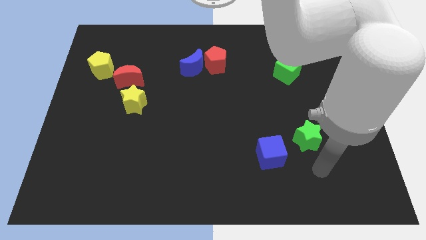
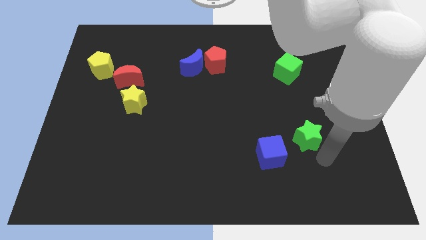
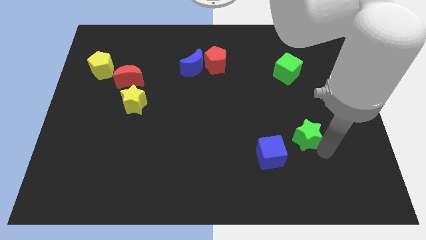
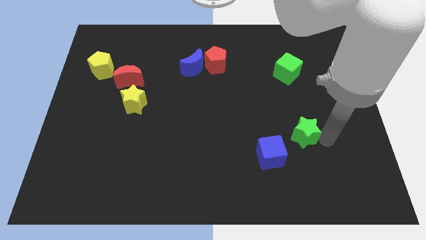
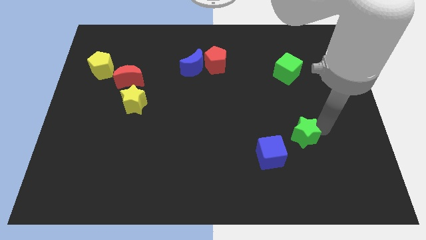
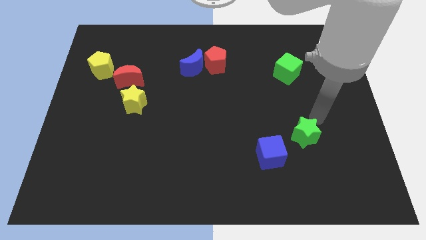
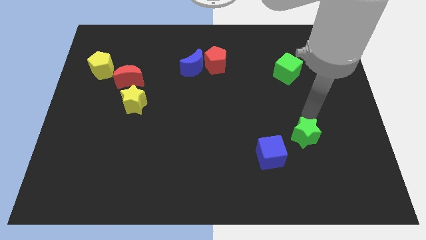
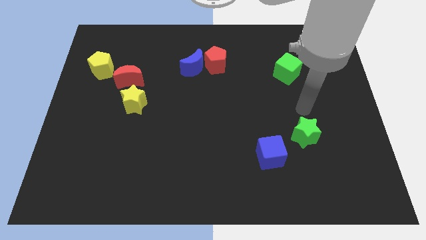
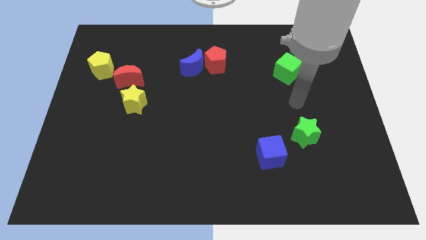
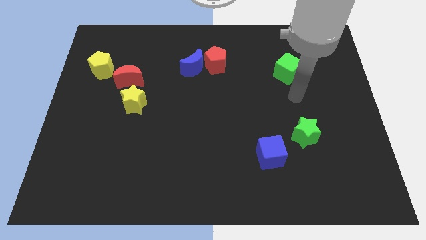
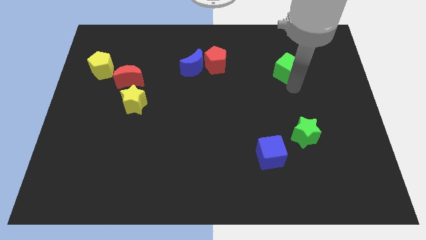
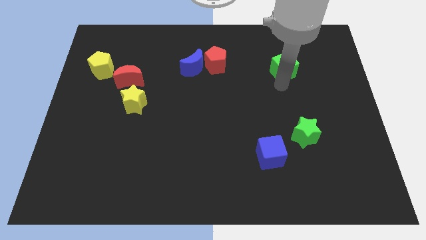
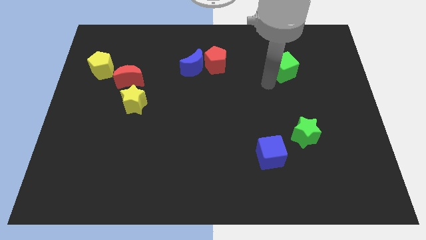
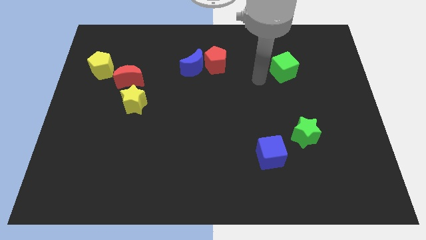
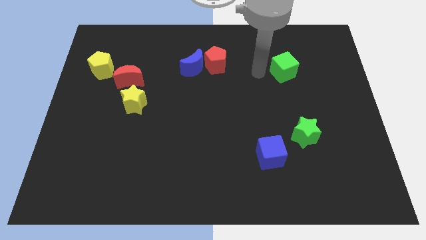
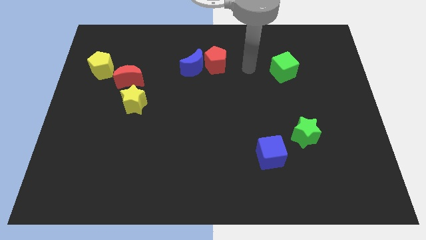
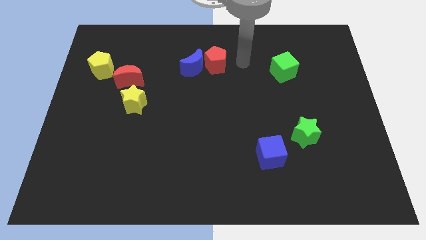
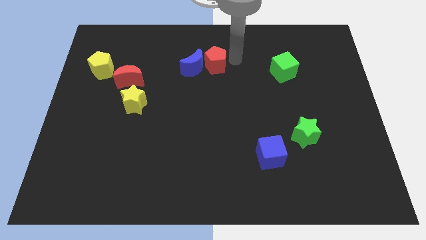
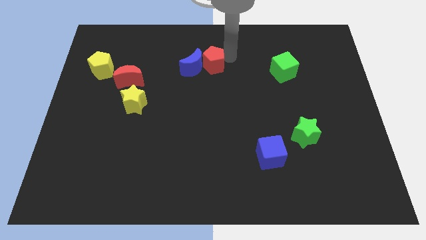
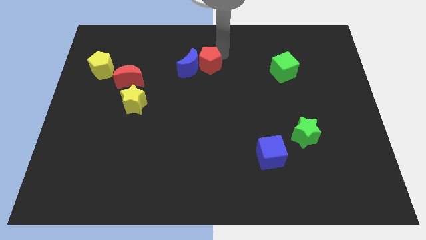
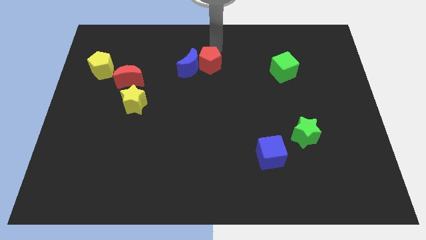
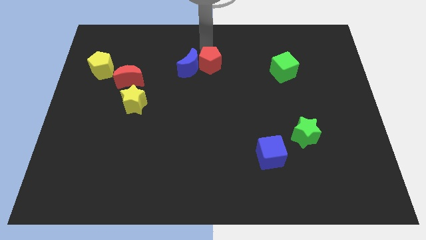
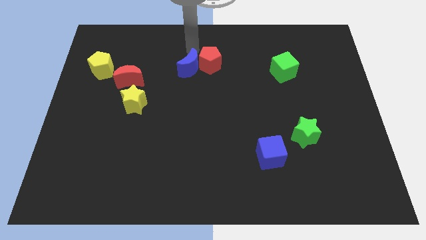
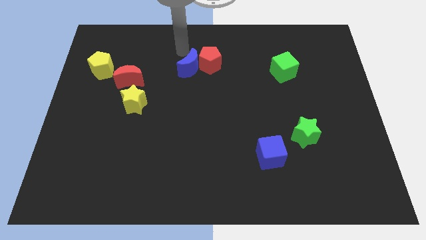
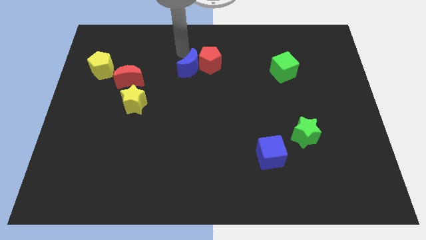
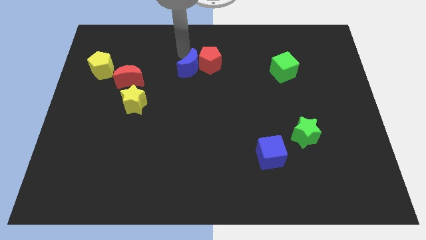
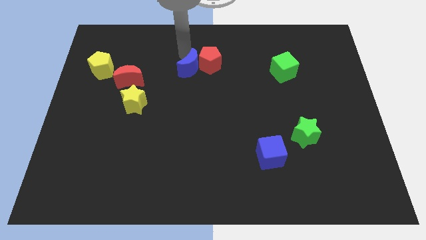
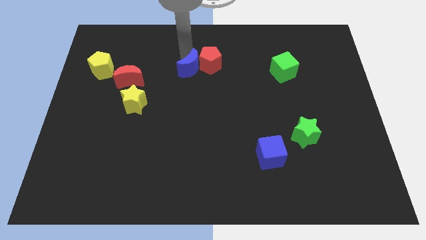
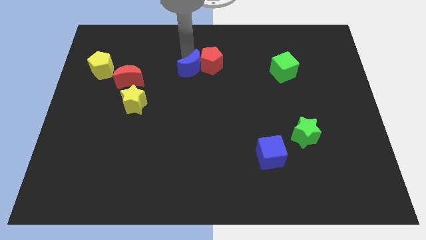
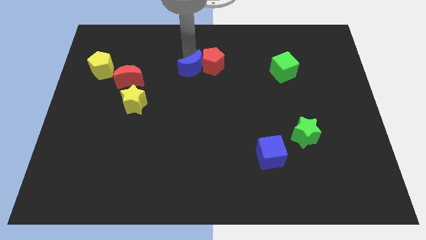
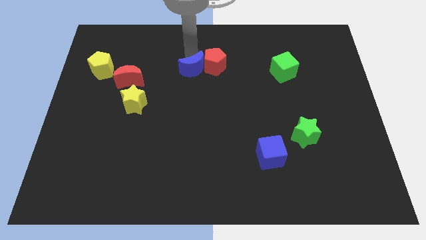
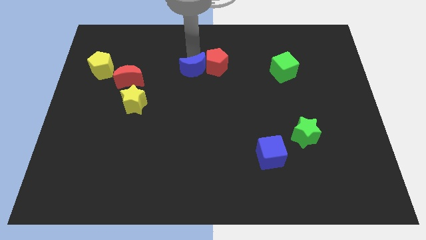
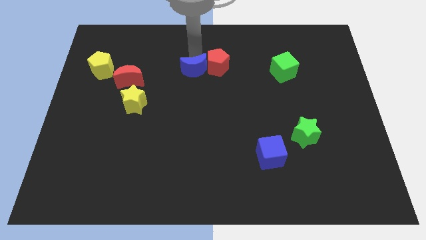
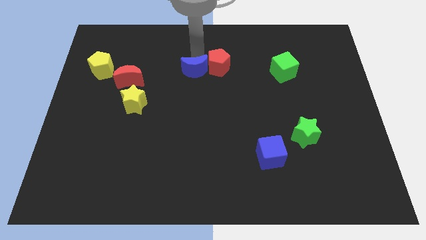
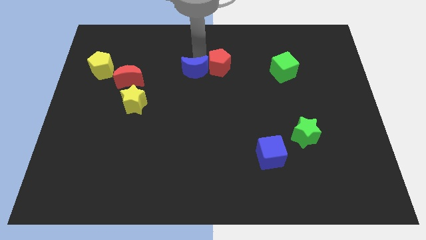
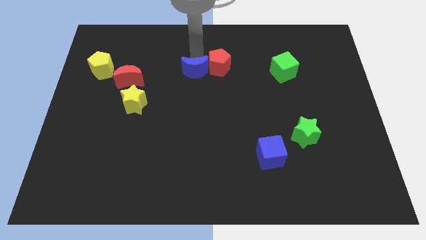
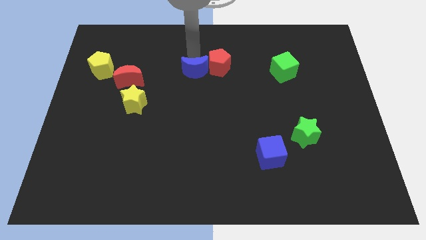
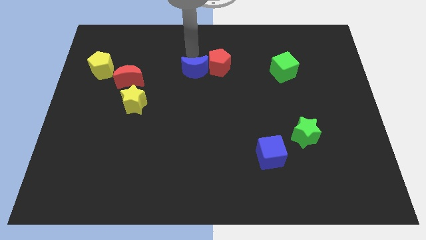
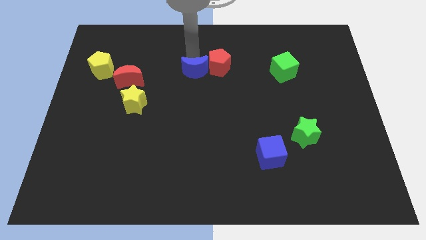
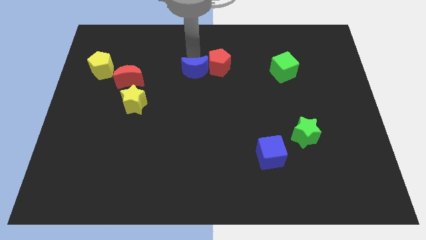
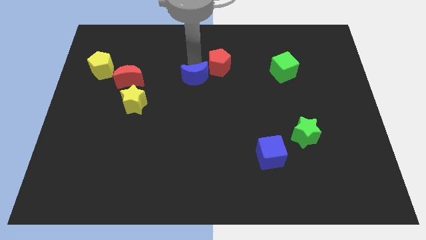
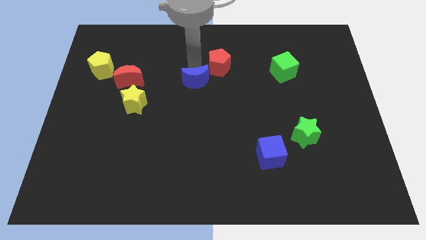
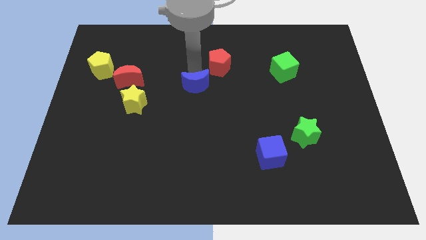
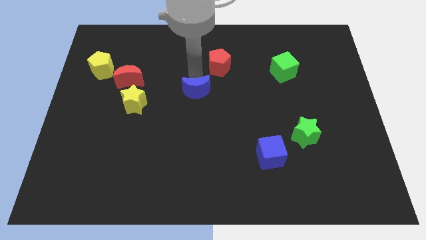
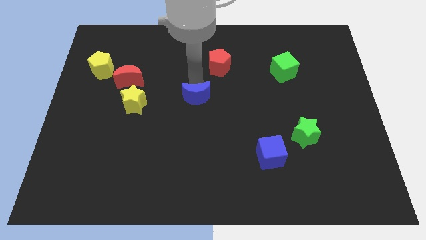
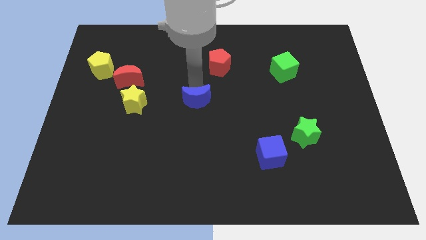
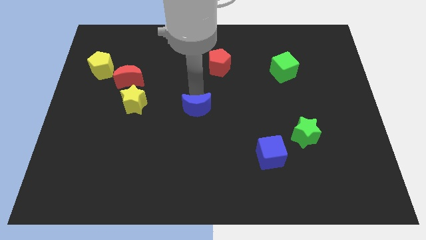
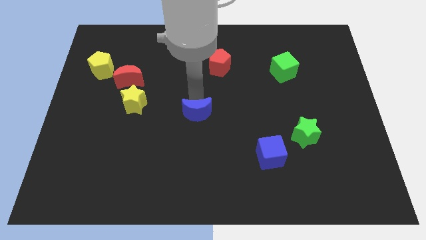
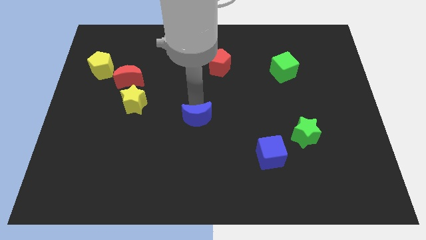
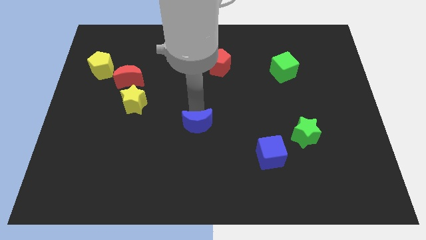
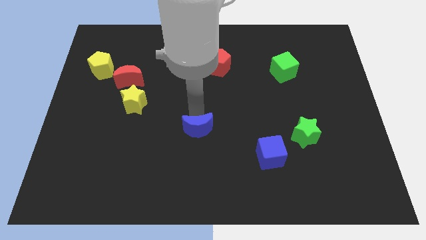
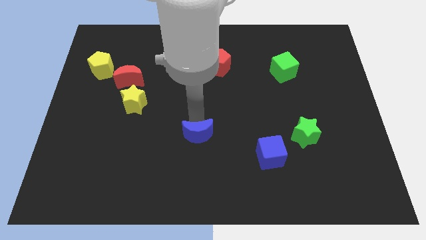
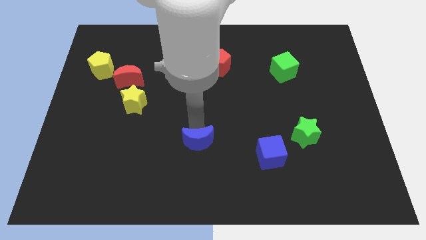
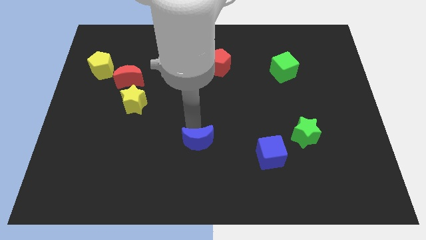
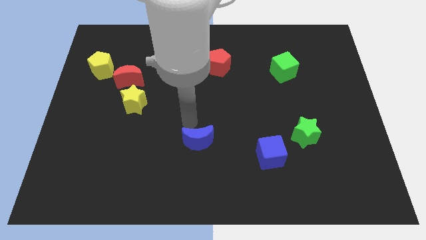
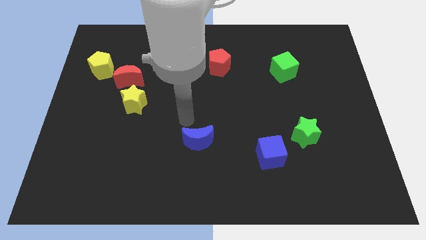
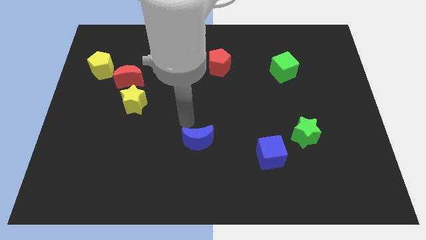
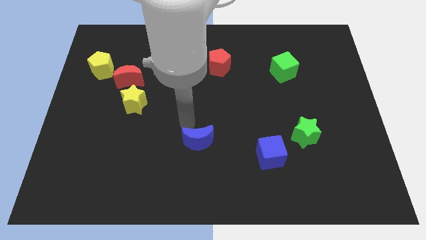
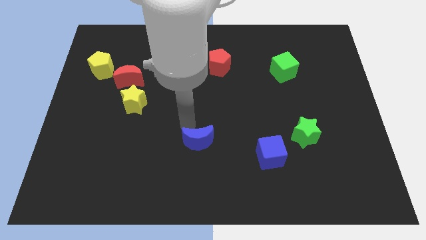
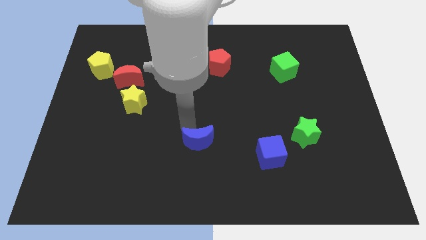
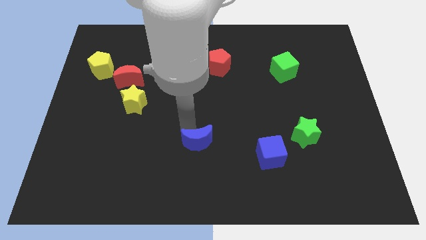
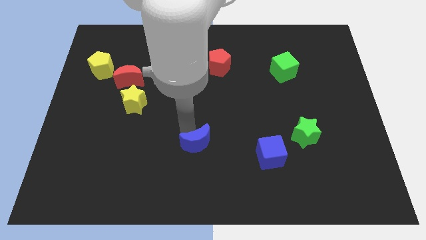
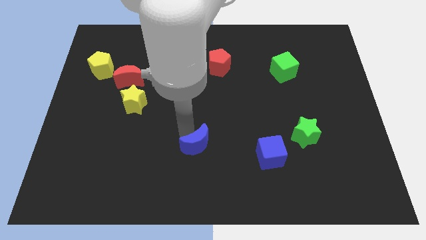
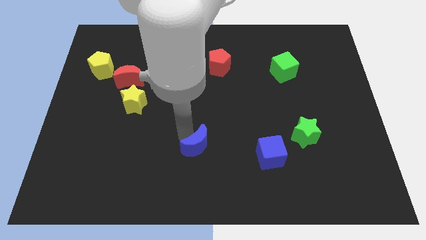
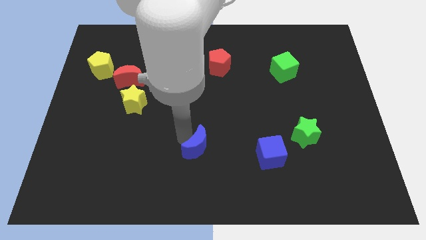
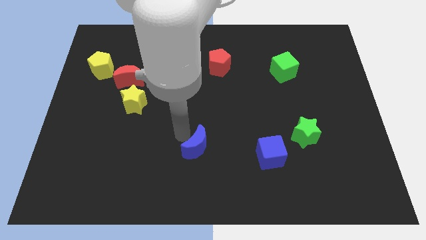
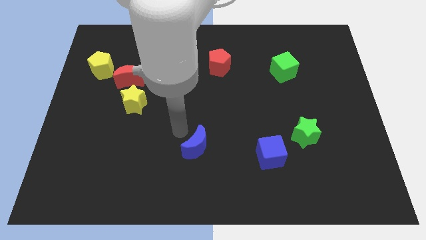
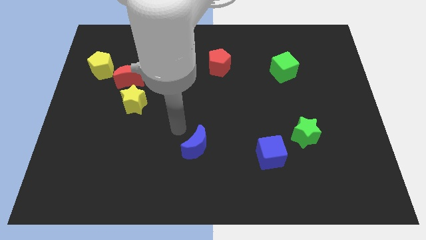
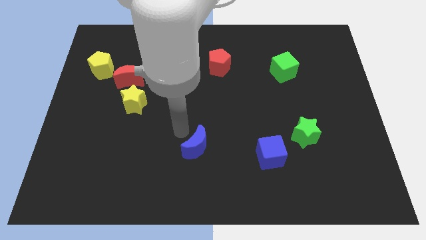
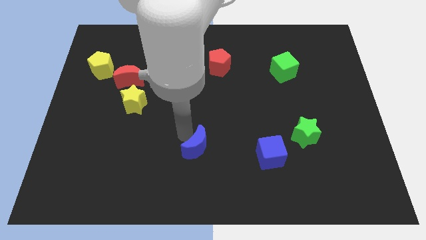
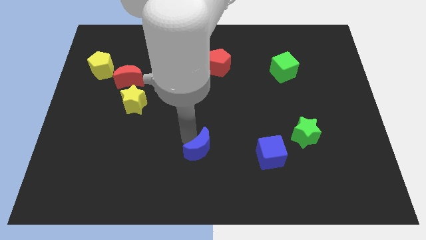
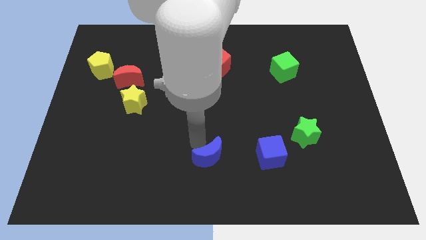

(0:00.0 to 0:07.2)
push the blue moon to the bottom
